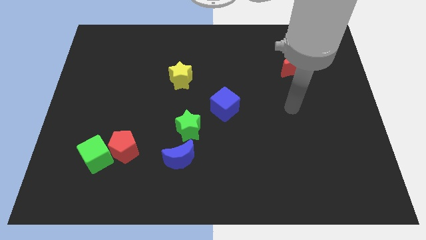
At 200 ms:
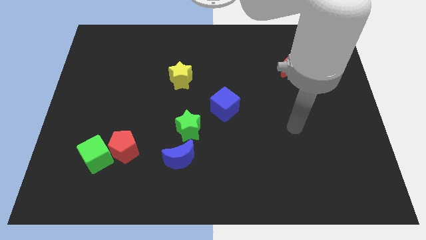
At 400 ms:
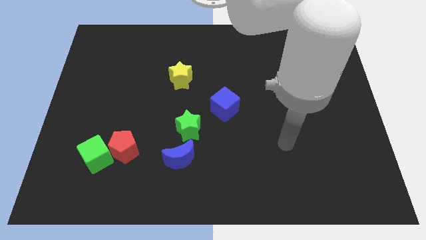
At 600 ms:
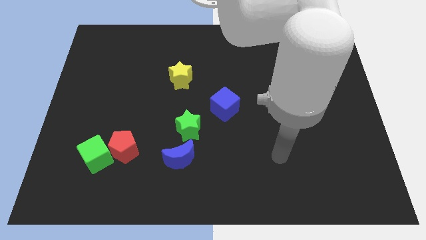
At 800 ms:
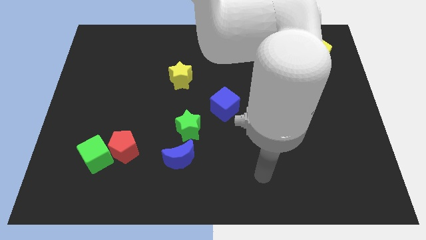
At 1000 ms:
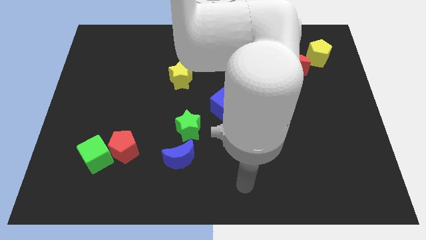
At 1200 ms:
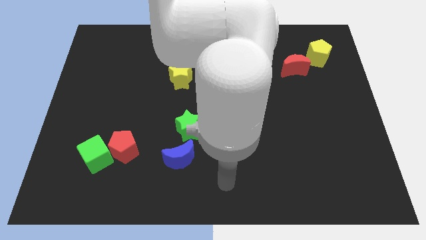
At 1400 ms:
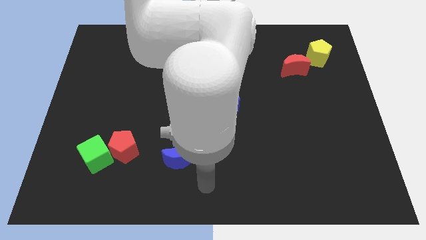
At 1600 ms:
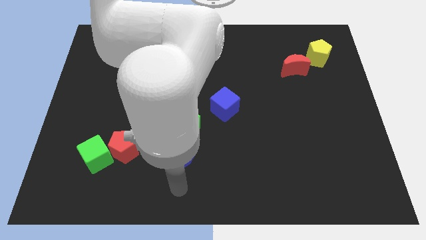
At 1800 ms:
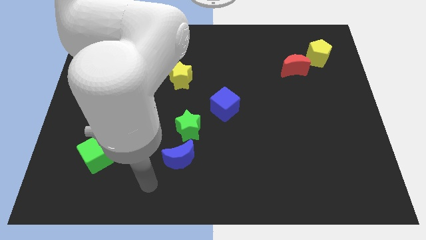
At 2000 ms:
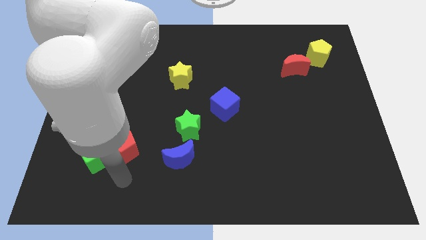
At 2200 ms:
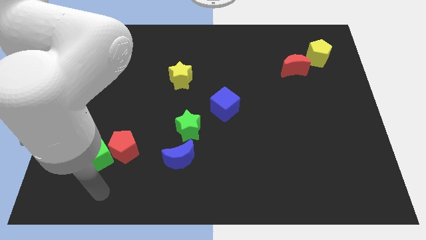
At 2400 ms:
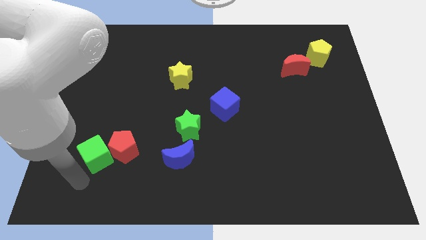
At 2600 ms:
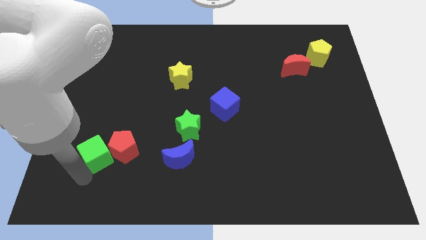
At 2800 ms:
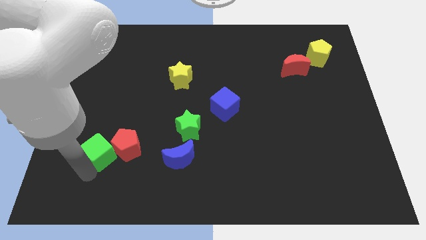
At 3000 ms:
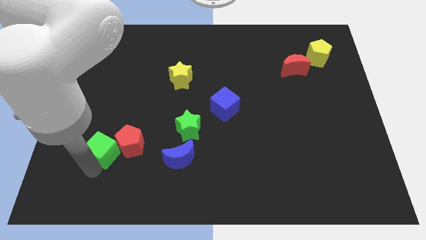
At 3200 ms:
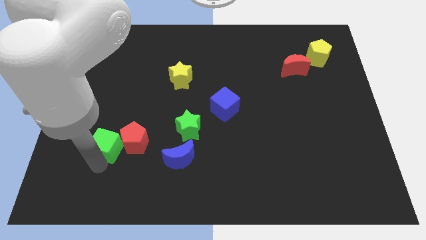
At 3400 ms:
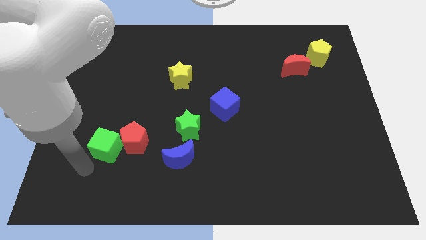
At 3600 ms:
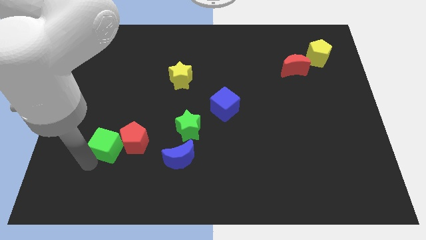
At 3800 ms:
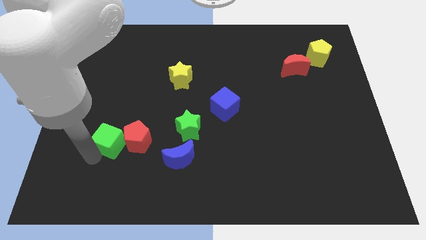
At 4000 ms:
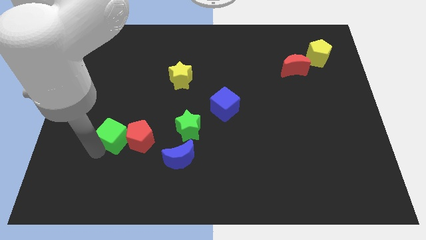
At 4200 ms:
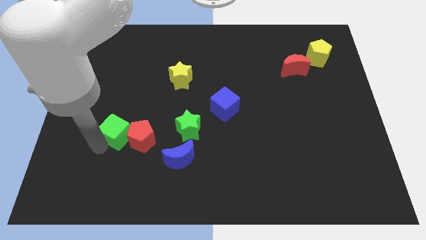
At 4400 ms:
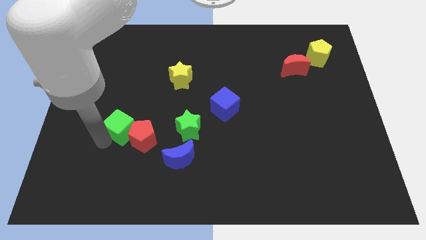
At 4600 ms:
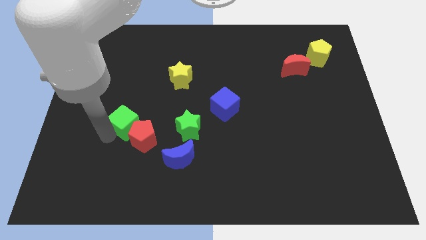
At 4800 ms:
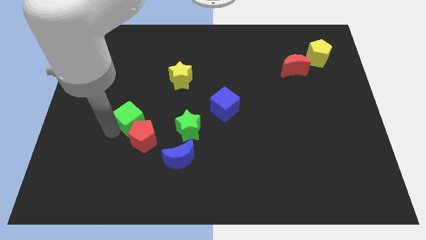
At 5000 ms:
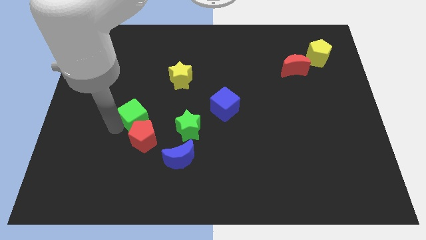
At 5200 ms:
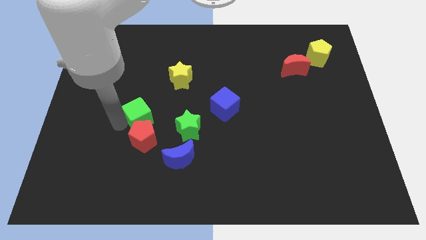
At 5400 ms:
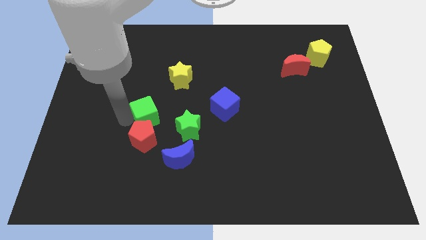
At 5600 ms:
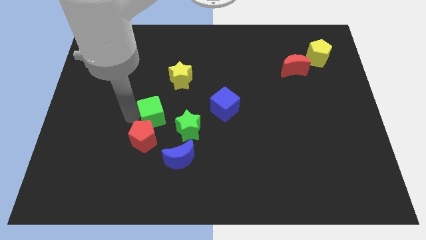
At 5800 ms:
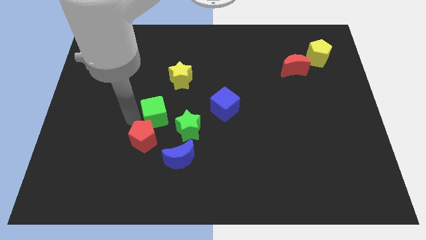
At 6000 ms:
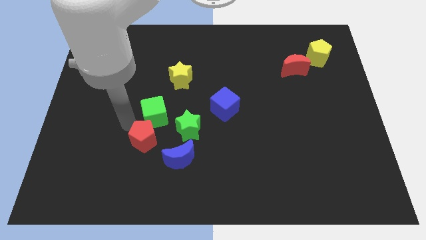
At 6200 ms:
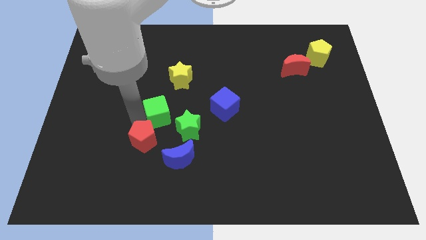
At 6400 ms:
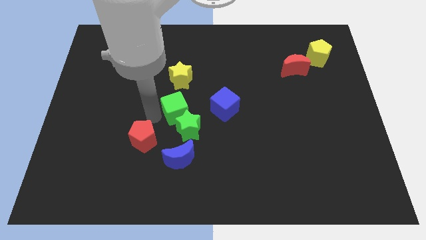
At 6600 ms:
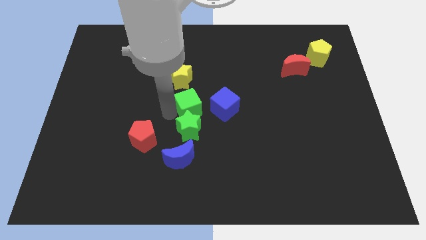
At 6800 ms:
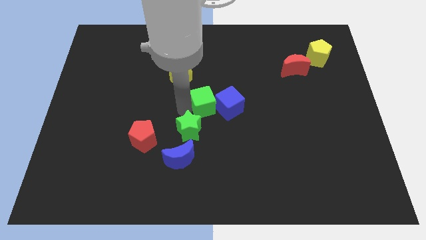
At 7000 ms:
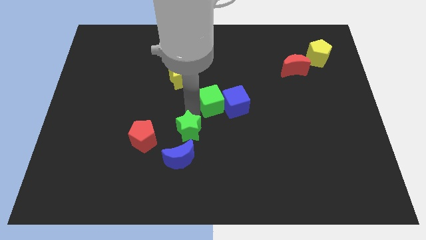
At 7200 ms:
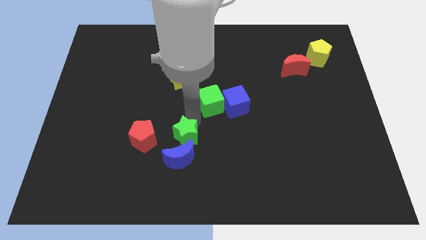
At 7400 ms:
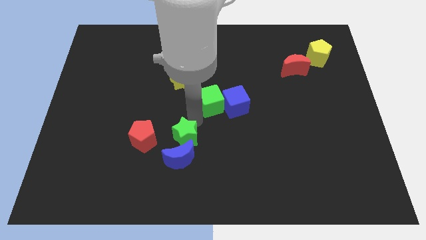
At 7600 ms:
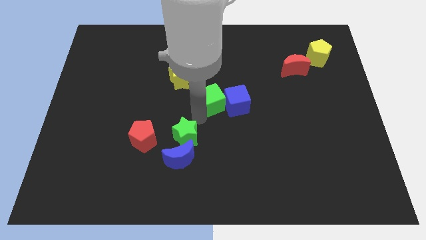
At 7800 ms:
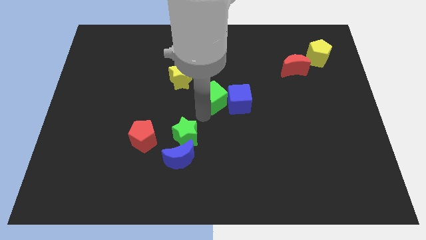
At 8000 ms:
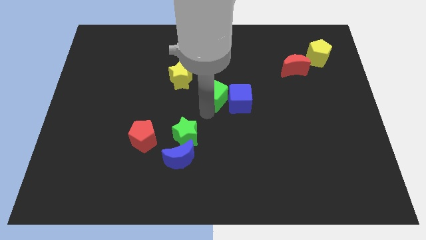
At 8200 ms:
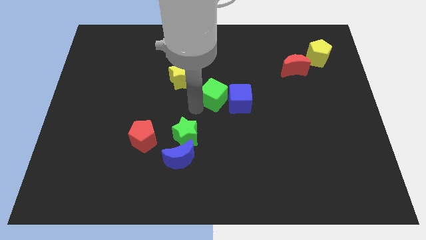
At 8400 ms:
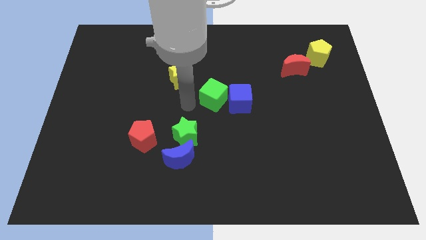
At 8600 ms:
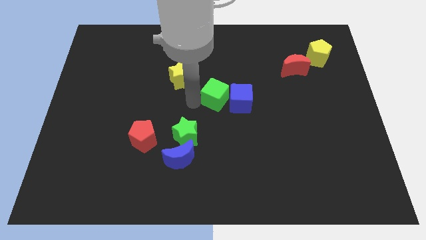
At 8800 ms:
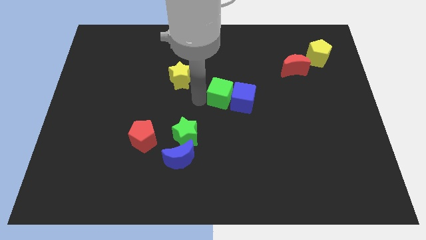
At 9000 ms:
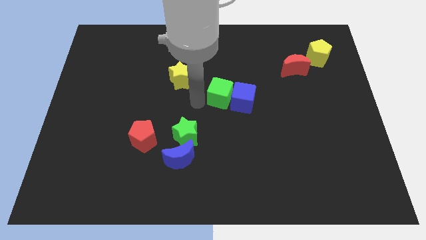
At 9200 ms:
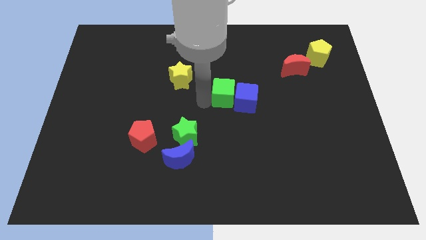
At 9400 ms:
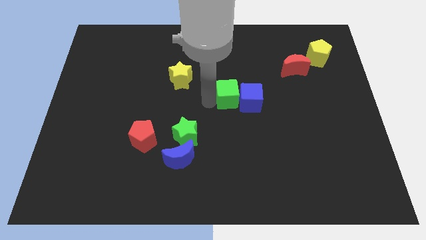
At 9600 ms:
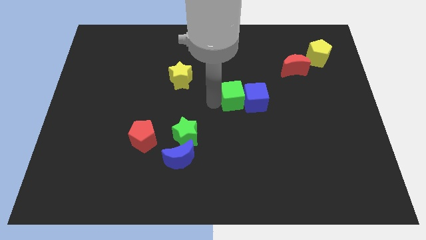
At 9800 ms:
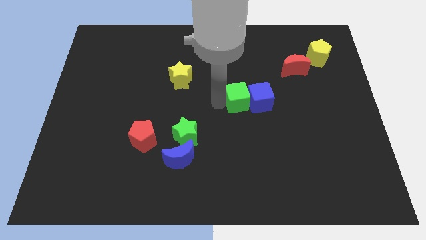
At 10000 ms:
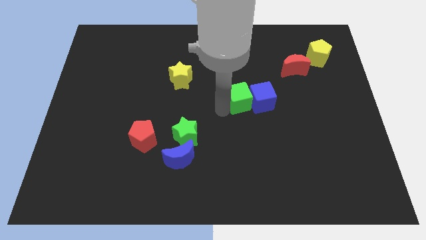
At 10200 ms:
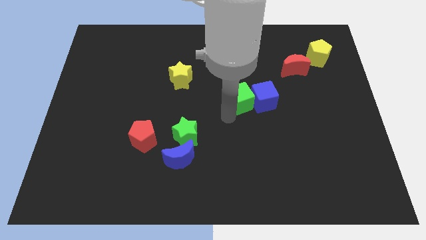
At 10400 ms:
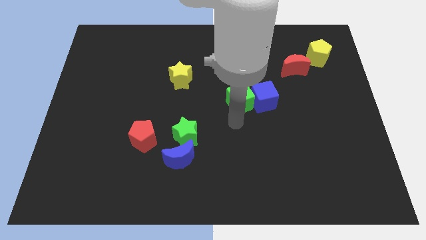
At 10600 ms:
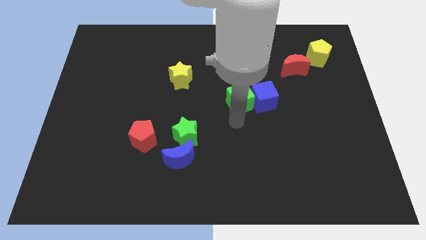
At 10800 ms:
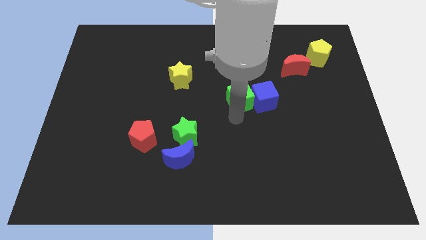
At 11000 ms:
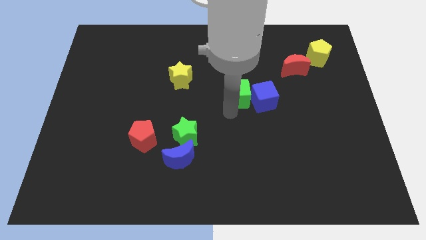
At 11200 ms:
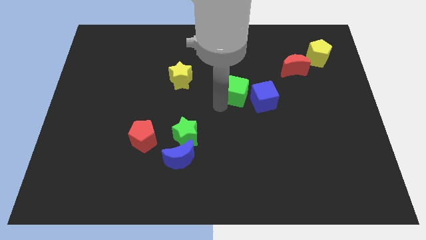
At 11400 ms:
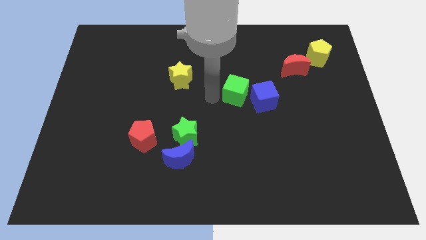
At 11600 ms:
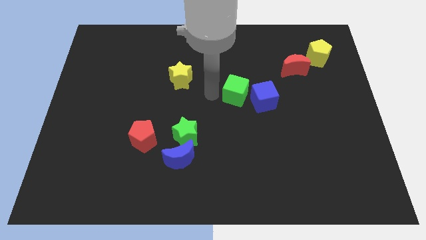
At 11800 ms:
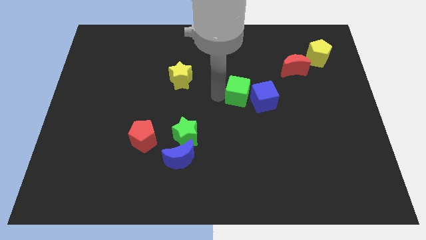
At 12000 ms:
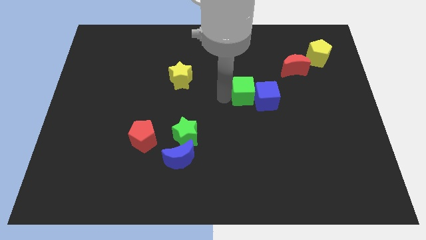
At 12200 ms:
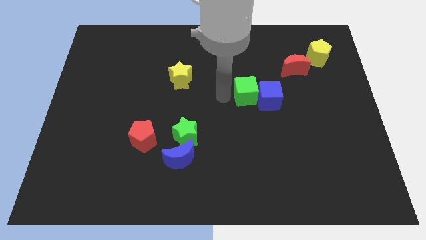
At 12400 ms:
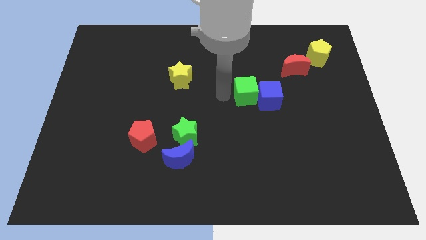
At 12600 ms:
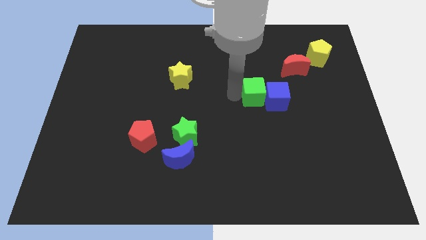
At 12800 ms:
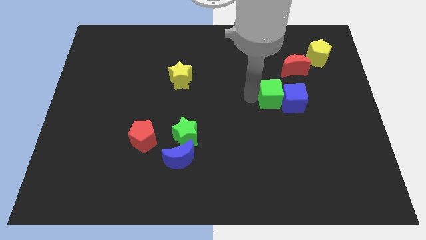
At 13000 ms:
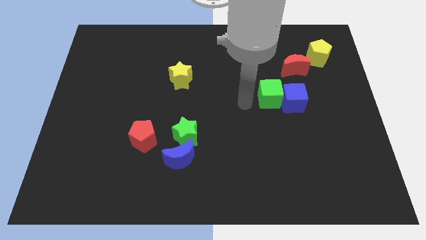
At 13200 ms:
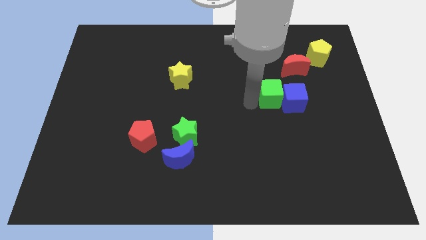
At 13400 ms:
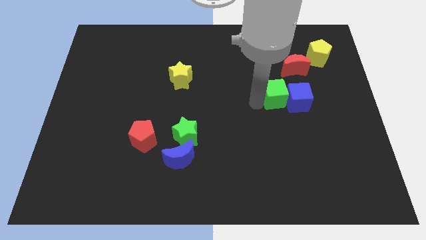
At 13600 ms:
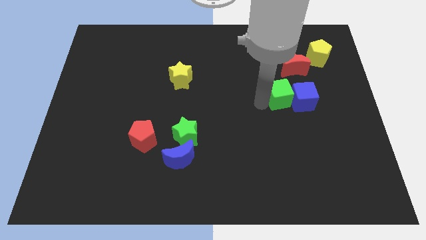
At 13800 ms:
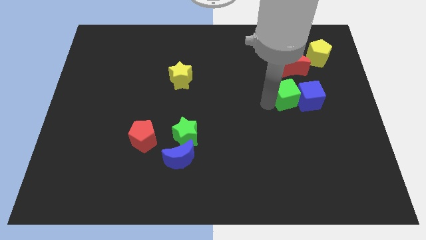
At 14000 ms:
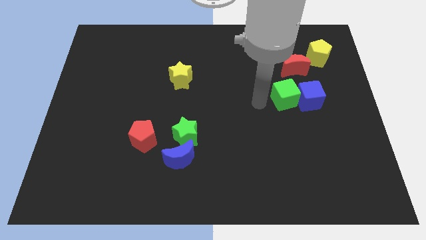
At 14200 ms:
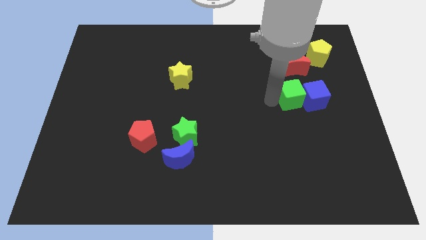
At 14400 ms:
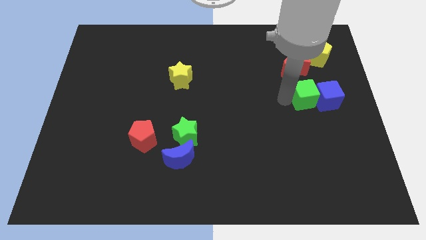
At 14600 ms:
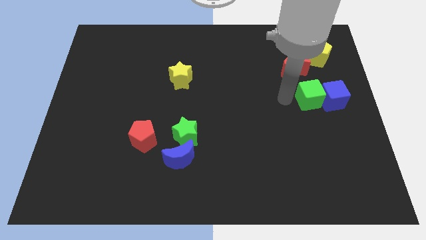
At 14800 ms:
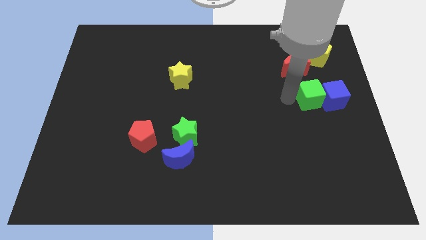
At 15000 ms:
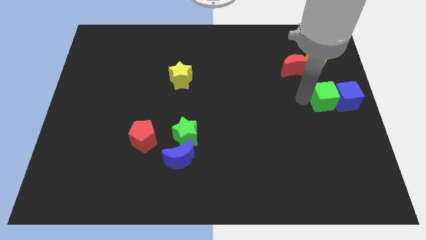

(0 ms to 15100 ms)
slide the green cube to the center right
